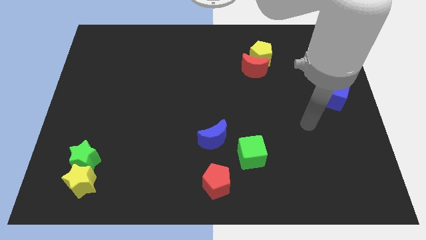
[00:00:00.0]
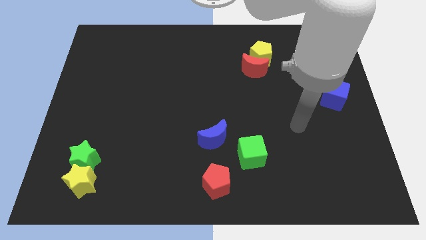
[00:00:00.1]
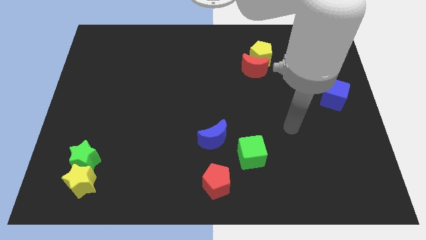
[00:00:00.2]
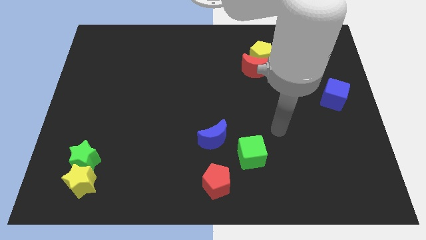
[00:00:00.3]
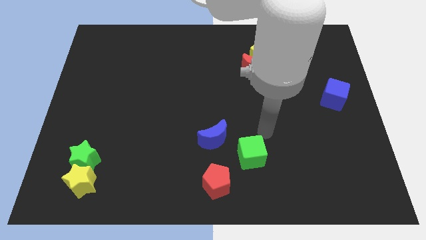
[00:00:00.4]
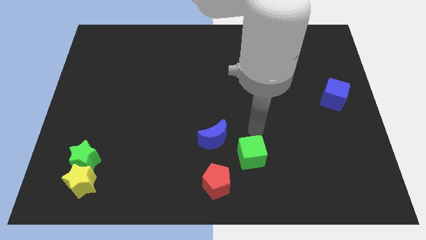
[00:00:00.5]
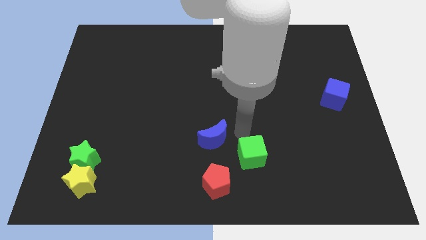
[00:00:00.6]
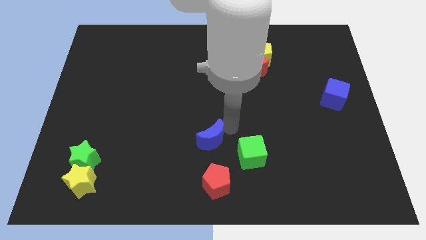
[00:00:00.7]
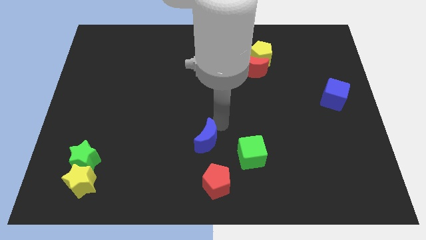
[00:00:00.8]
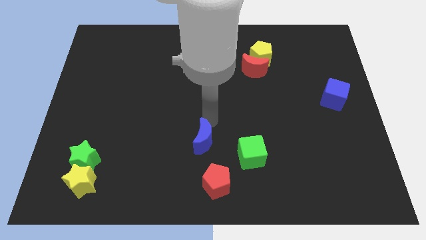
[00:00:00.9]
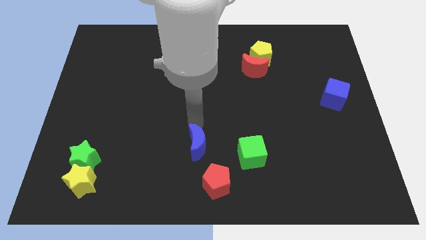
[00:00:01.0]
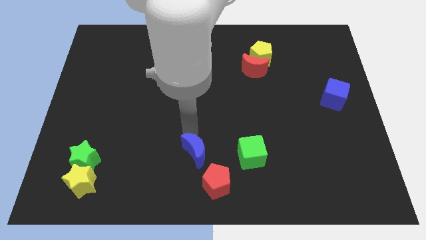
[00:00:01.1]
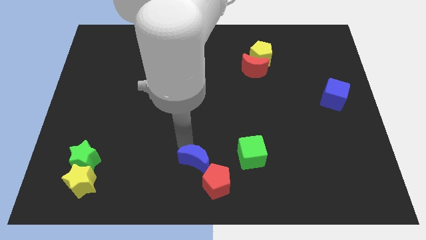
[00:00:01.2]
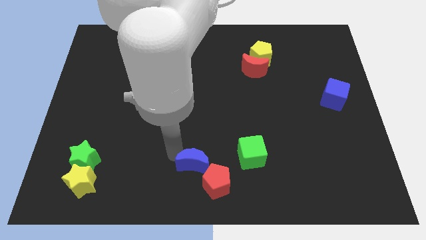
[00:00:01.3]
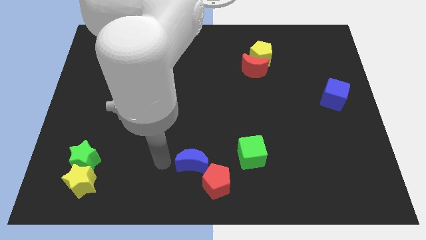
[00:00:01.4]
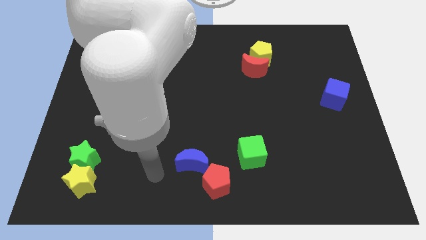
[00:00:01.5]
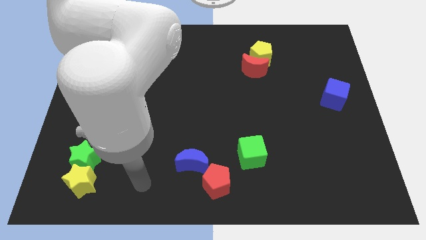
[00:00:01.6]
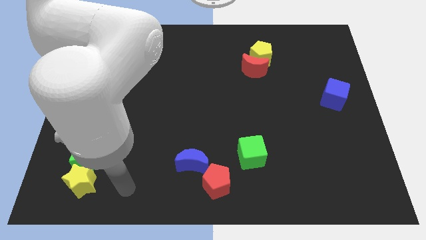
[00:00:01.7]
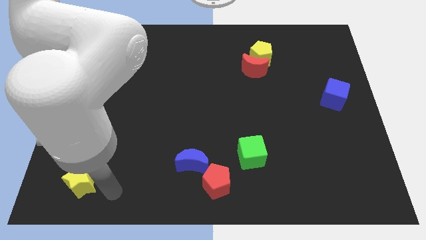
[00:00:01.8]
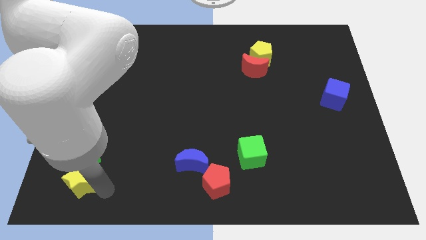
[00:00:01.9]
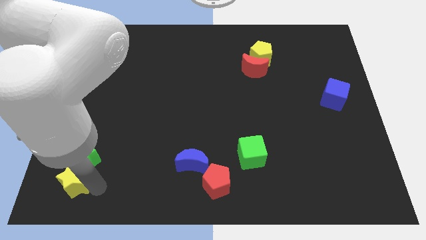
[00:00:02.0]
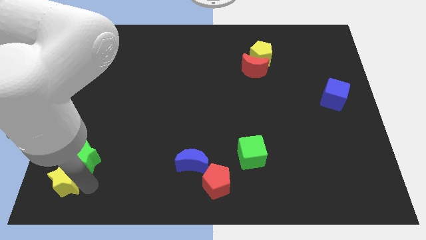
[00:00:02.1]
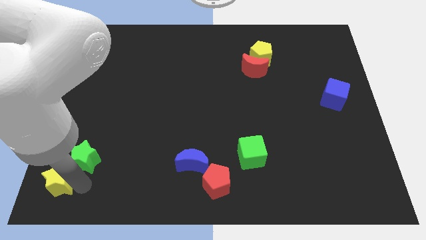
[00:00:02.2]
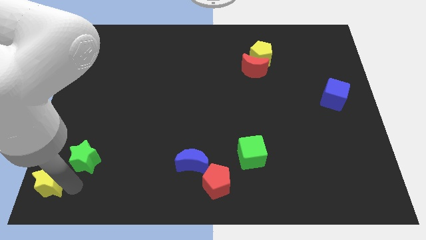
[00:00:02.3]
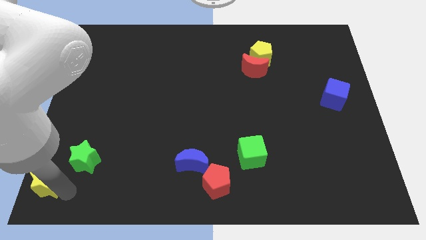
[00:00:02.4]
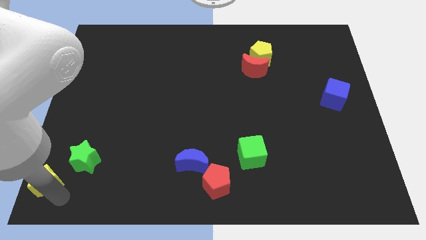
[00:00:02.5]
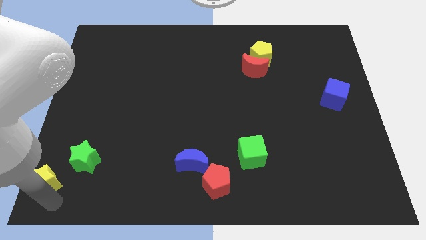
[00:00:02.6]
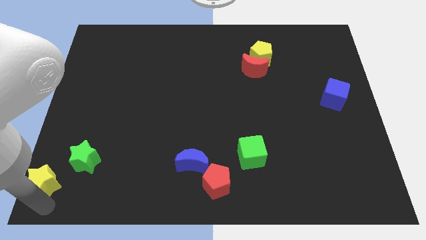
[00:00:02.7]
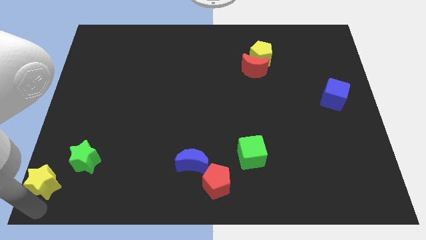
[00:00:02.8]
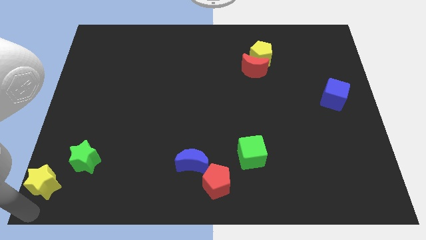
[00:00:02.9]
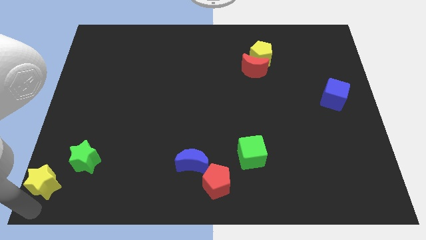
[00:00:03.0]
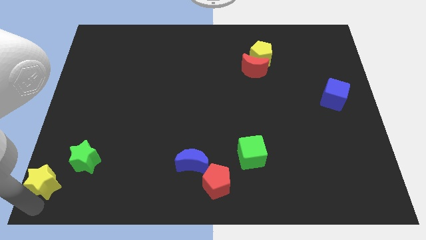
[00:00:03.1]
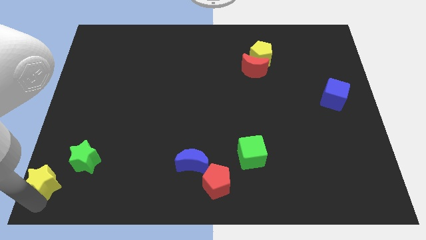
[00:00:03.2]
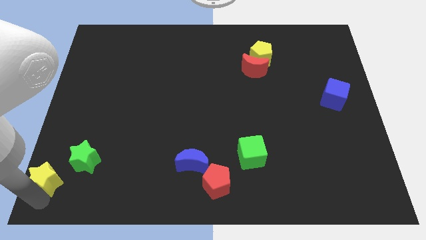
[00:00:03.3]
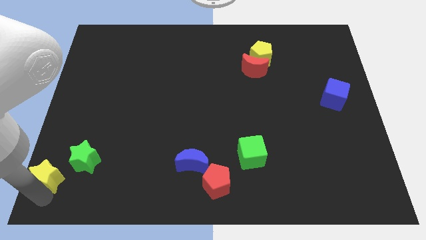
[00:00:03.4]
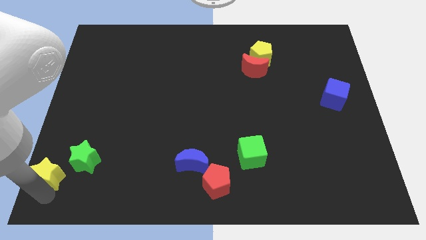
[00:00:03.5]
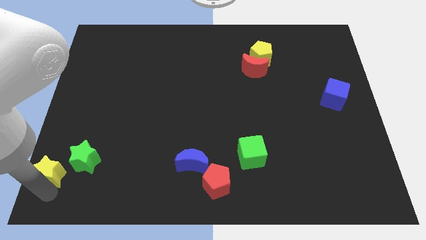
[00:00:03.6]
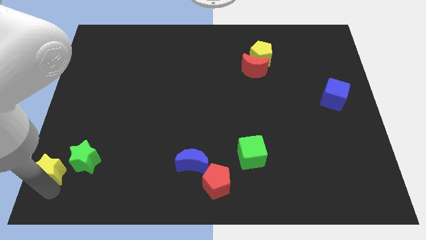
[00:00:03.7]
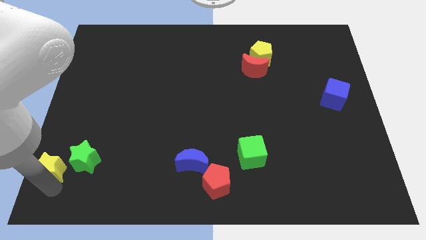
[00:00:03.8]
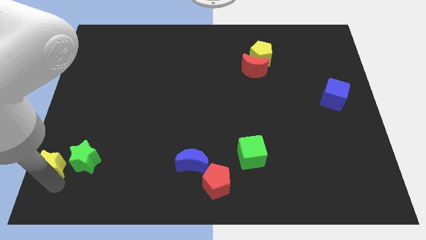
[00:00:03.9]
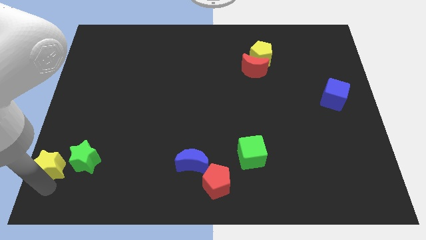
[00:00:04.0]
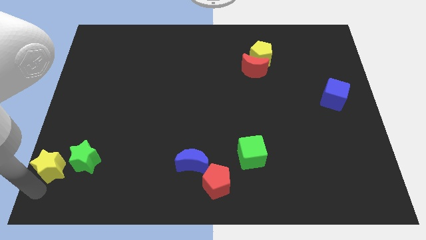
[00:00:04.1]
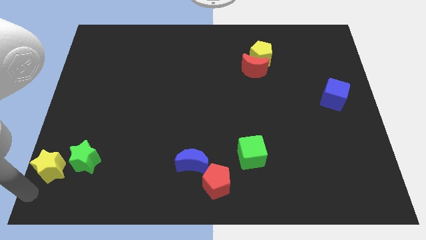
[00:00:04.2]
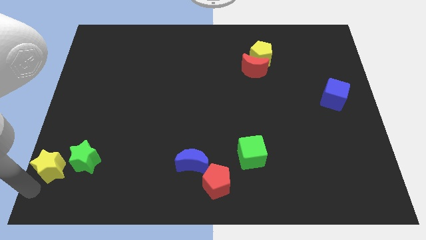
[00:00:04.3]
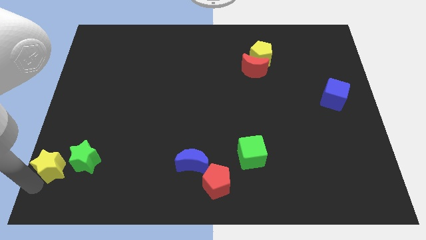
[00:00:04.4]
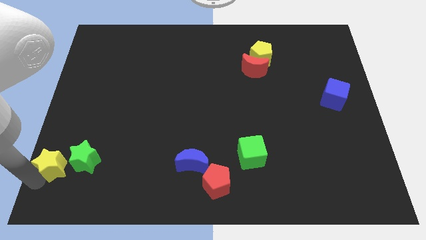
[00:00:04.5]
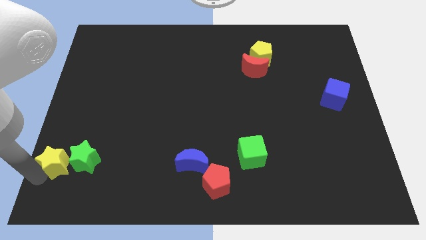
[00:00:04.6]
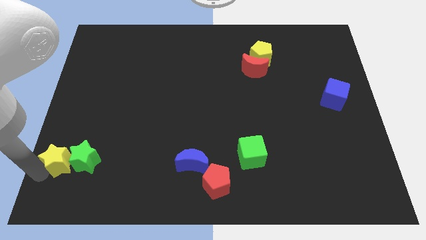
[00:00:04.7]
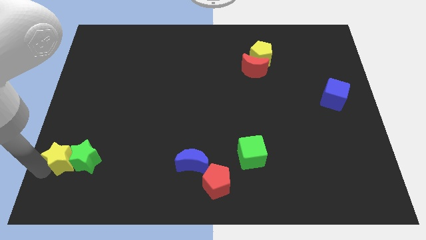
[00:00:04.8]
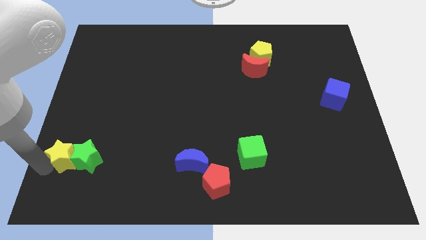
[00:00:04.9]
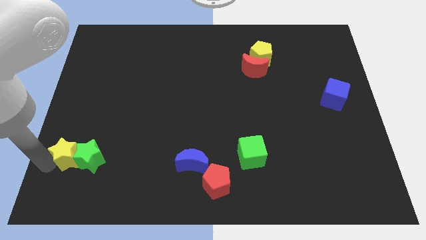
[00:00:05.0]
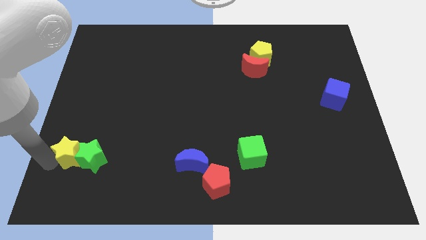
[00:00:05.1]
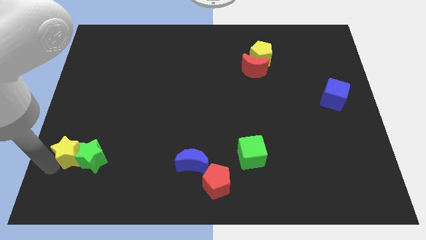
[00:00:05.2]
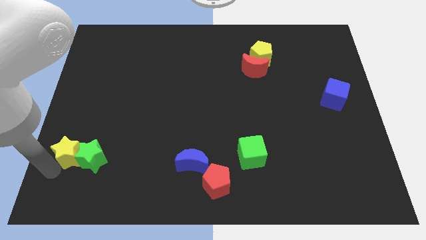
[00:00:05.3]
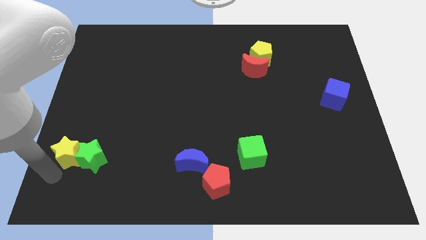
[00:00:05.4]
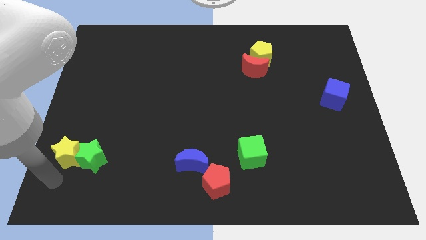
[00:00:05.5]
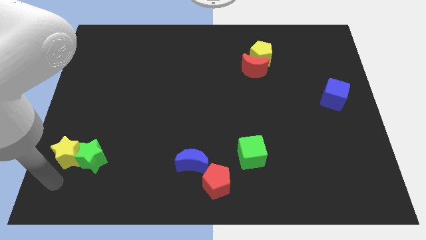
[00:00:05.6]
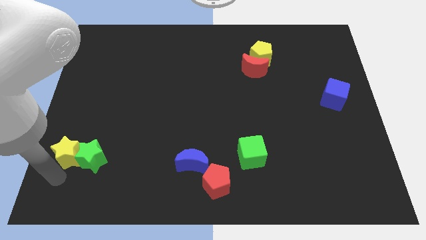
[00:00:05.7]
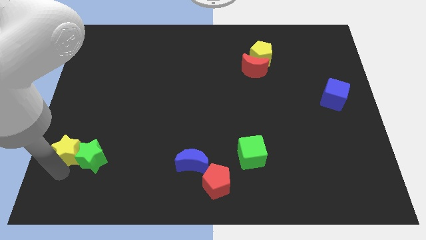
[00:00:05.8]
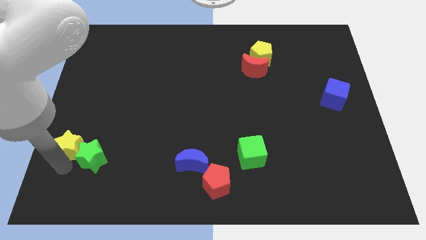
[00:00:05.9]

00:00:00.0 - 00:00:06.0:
slightly move the yellow star upwards

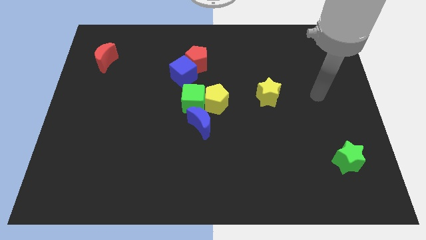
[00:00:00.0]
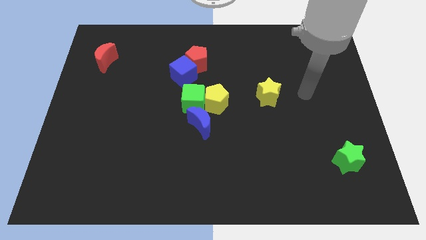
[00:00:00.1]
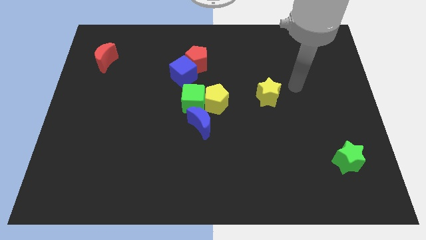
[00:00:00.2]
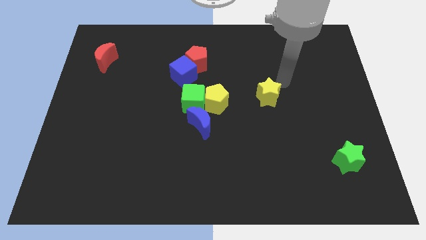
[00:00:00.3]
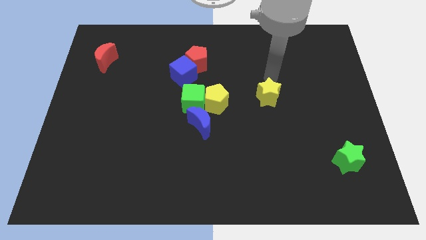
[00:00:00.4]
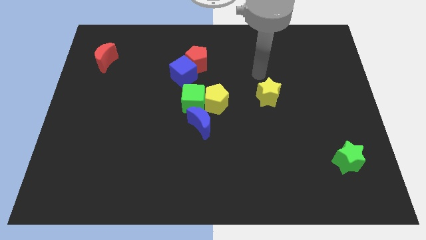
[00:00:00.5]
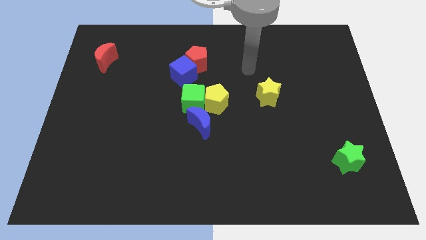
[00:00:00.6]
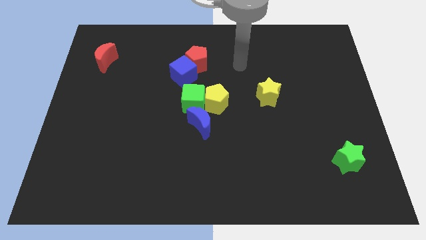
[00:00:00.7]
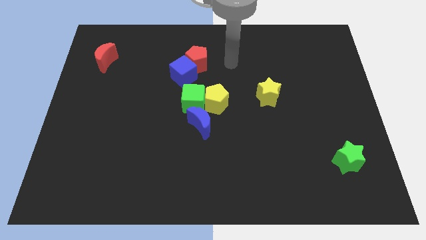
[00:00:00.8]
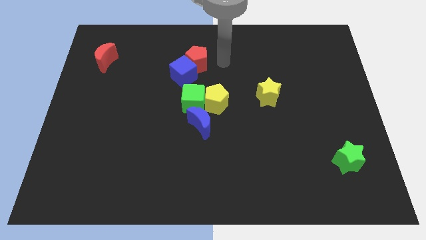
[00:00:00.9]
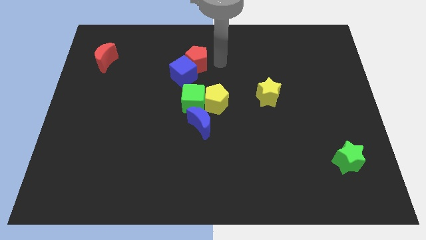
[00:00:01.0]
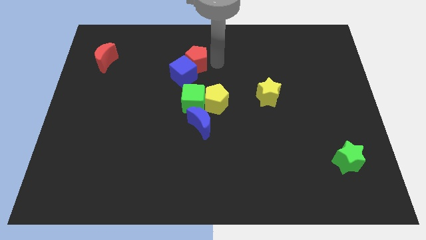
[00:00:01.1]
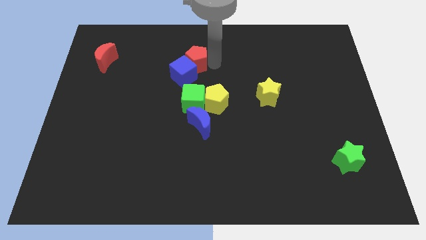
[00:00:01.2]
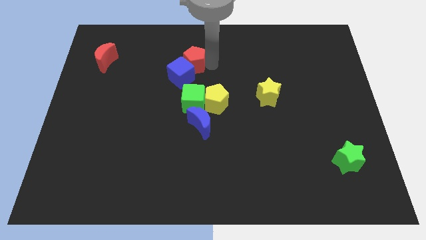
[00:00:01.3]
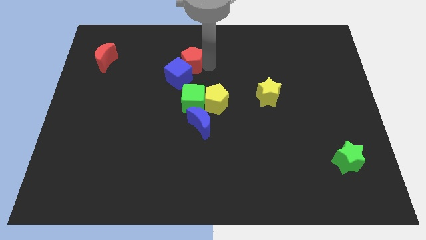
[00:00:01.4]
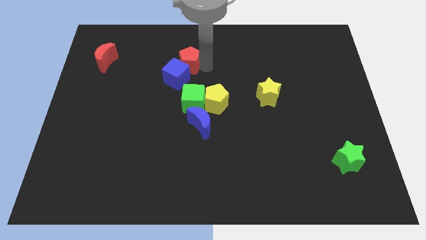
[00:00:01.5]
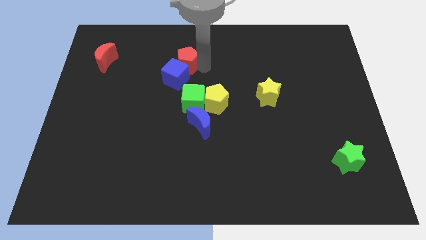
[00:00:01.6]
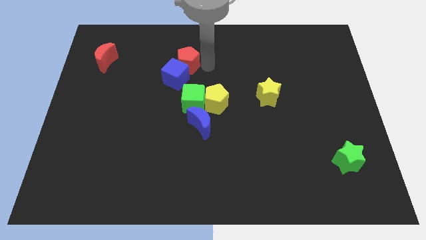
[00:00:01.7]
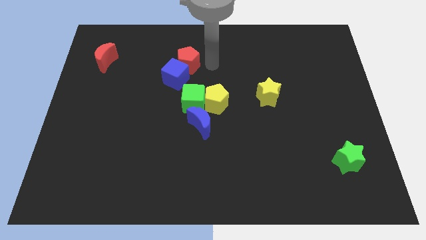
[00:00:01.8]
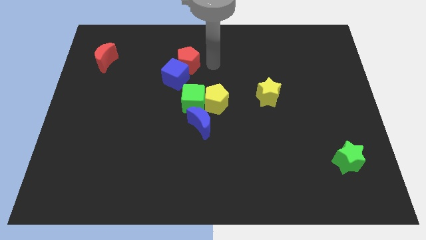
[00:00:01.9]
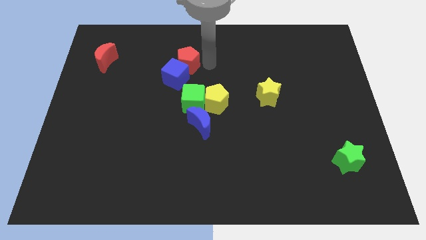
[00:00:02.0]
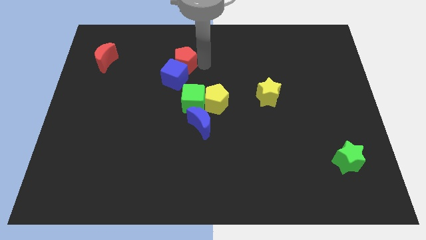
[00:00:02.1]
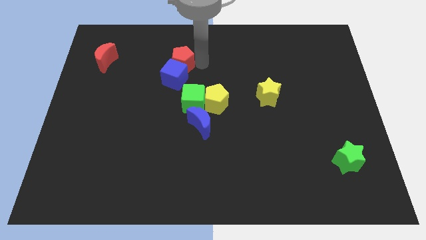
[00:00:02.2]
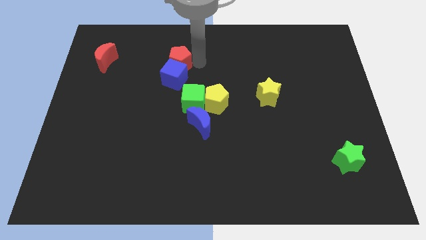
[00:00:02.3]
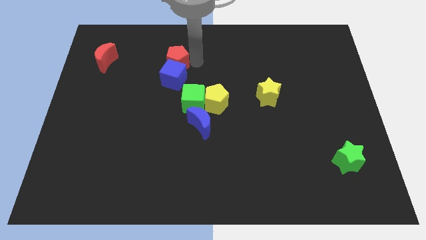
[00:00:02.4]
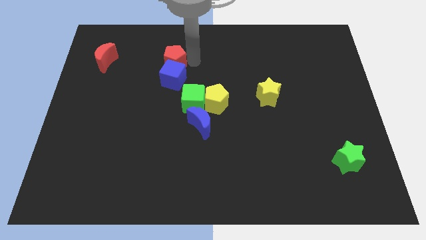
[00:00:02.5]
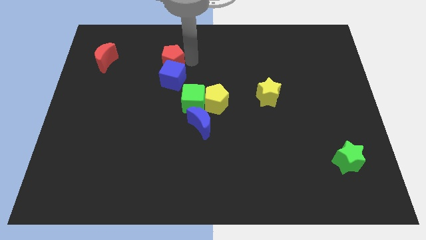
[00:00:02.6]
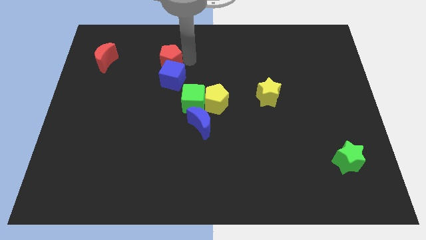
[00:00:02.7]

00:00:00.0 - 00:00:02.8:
push the red pentagon to the left somewhat
